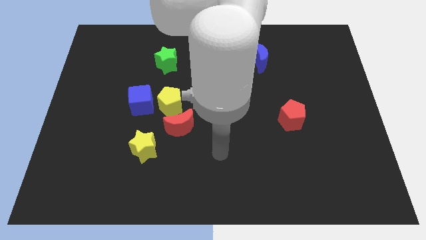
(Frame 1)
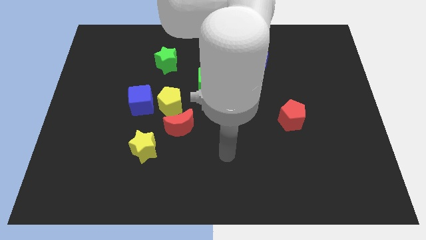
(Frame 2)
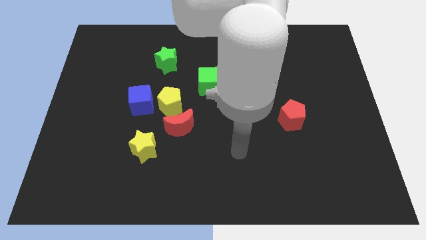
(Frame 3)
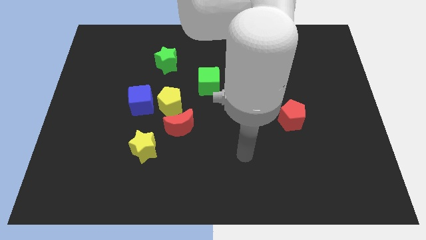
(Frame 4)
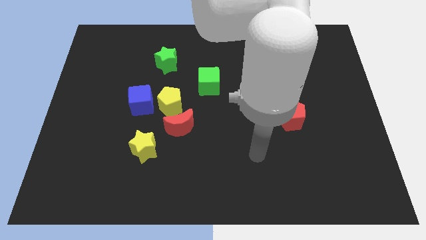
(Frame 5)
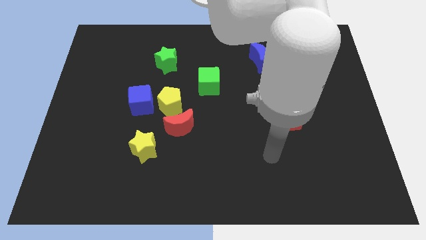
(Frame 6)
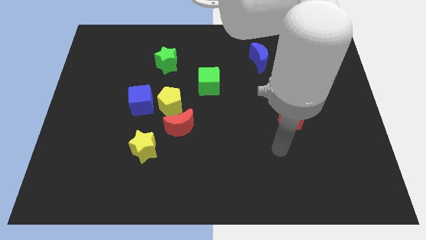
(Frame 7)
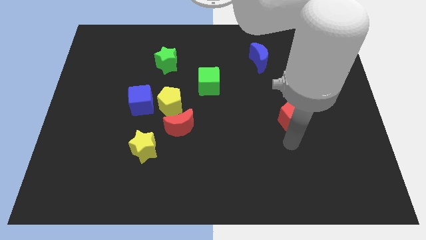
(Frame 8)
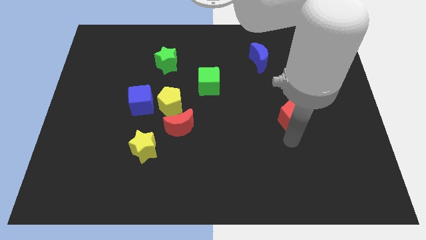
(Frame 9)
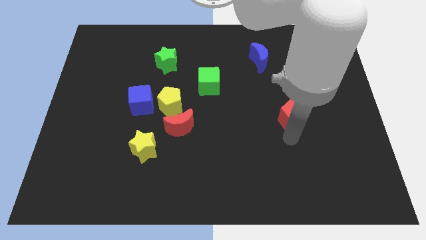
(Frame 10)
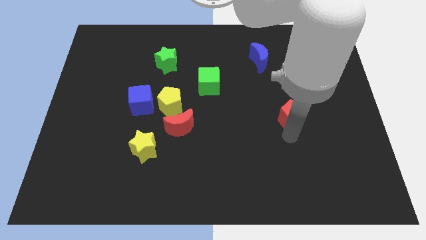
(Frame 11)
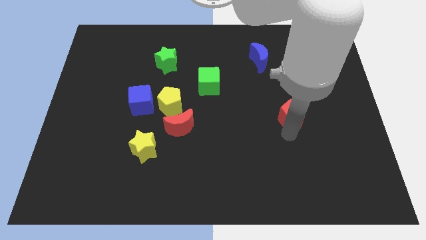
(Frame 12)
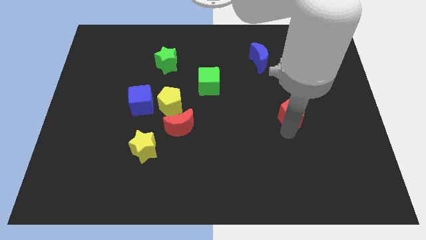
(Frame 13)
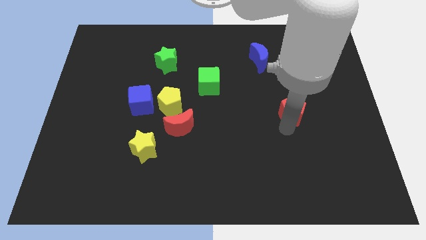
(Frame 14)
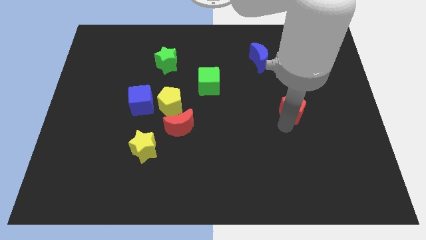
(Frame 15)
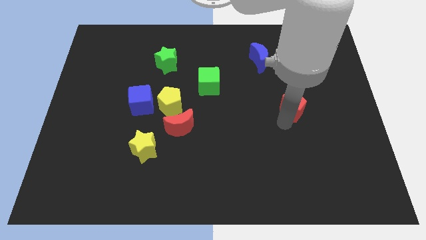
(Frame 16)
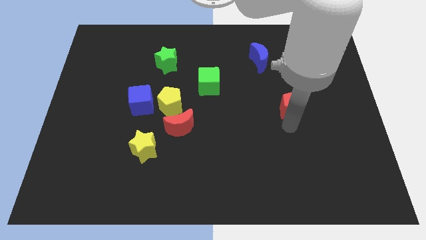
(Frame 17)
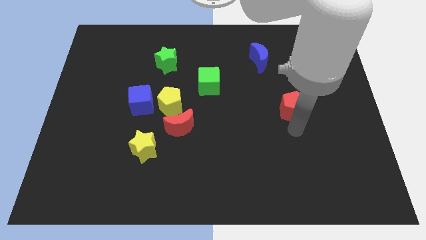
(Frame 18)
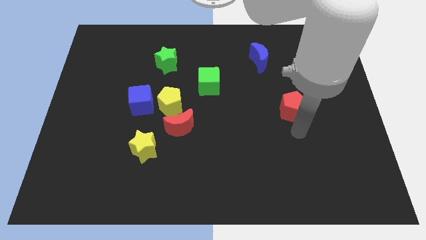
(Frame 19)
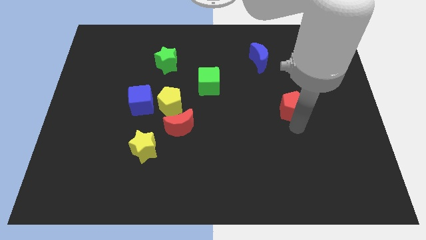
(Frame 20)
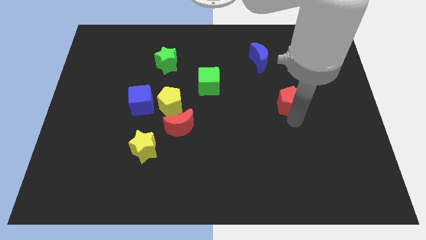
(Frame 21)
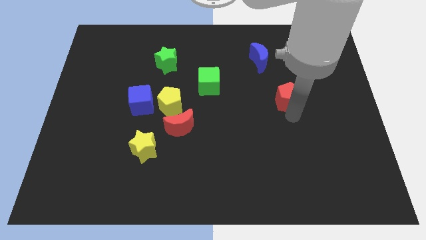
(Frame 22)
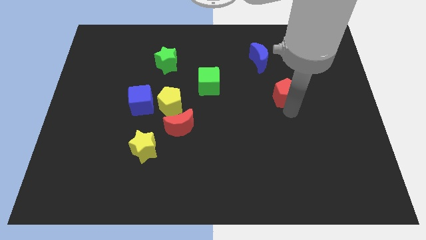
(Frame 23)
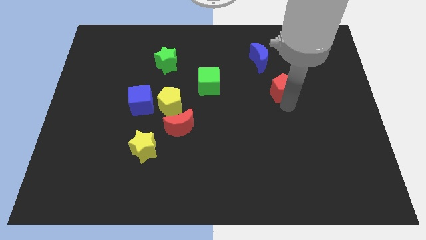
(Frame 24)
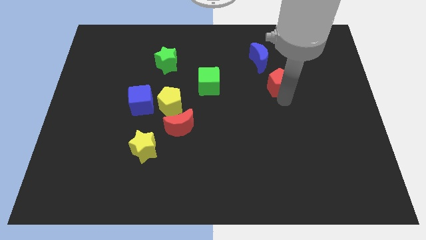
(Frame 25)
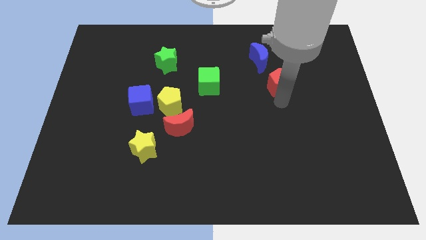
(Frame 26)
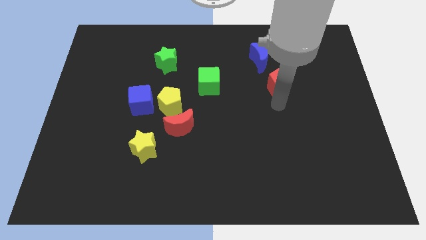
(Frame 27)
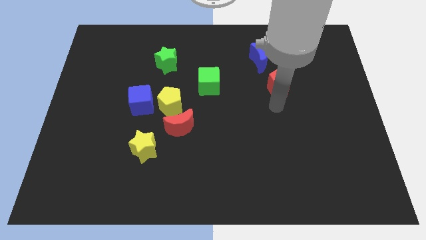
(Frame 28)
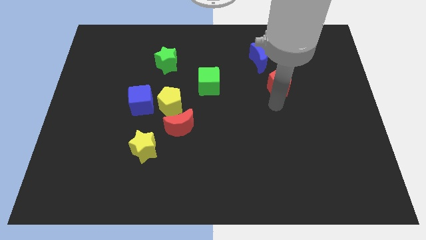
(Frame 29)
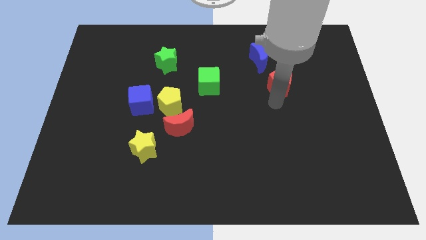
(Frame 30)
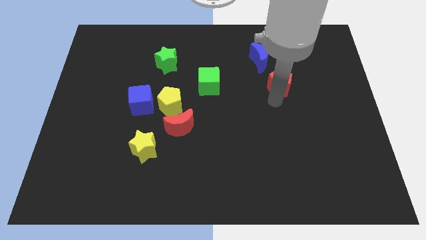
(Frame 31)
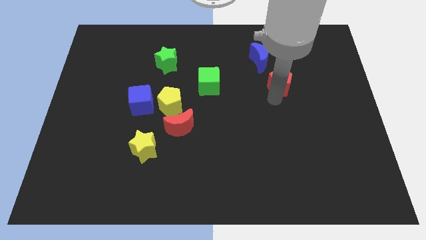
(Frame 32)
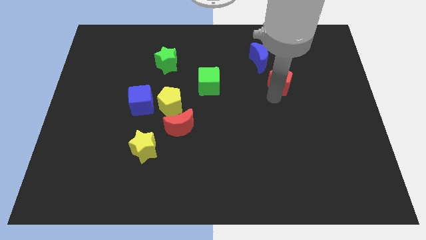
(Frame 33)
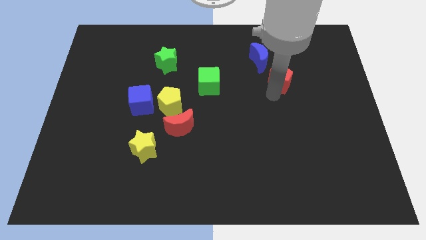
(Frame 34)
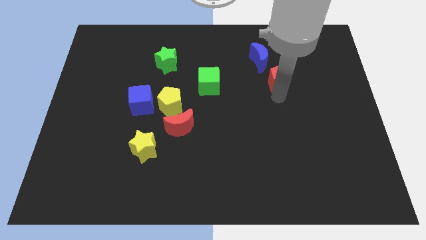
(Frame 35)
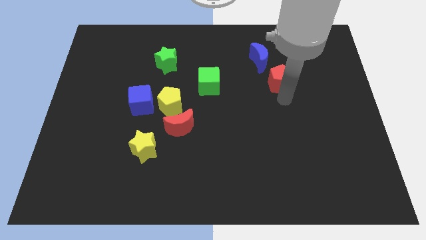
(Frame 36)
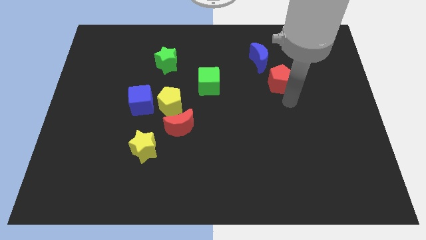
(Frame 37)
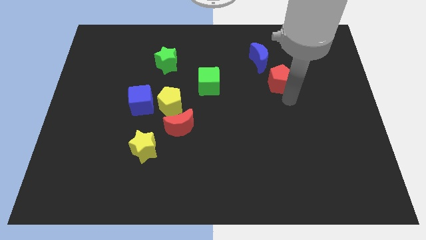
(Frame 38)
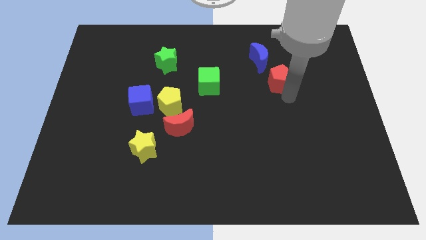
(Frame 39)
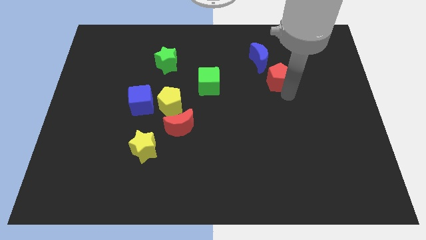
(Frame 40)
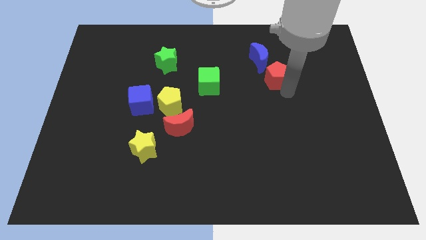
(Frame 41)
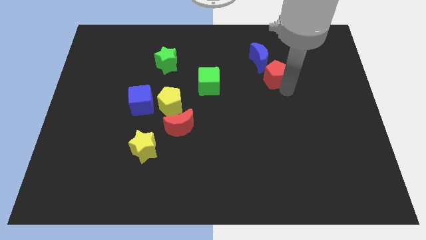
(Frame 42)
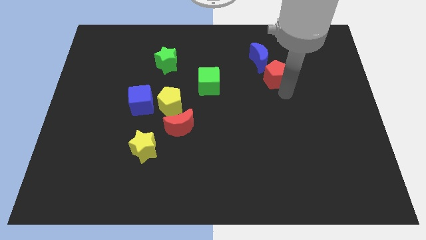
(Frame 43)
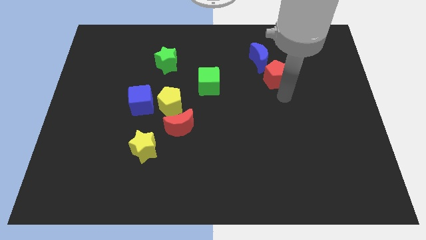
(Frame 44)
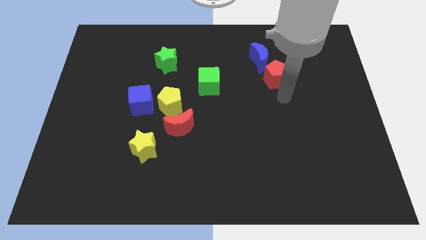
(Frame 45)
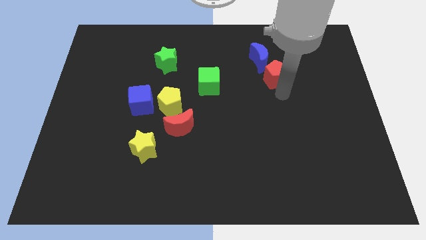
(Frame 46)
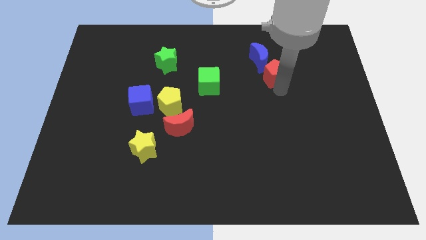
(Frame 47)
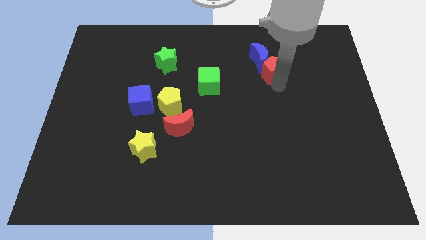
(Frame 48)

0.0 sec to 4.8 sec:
move the red pentagon to the blue moon

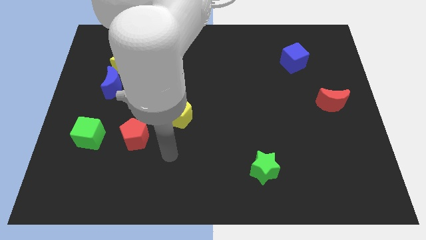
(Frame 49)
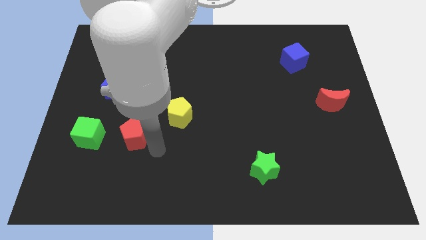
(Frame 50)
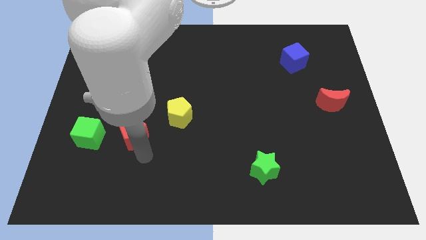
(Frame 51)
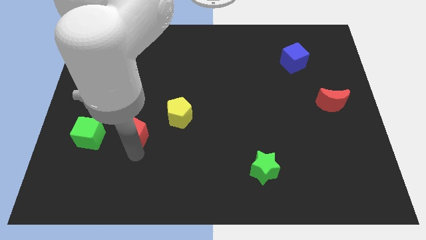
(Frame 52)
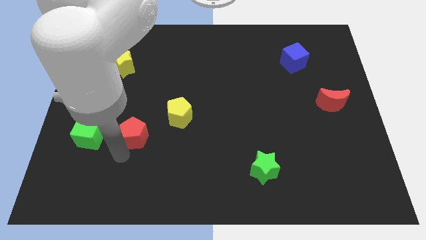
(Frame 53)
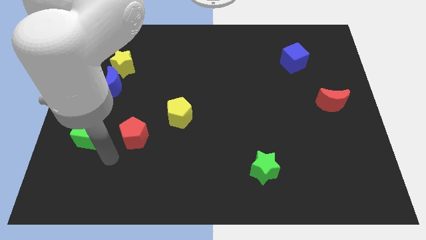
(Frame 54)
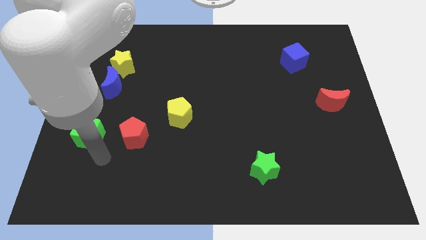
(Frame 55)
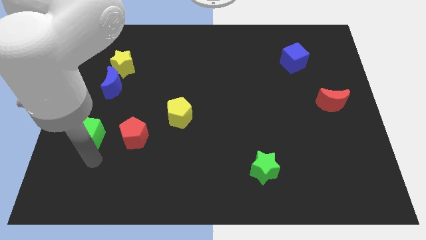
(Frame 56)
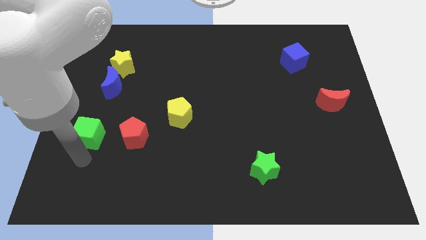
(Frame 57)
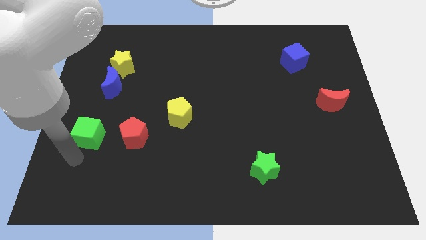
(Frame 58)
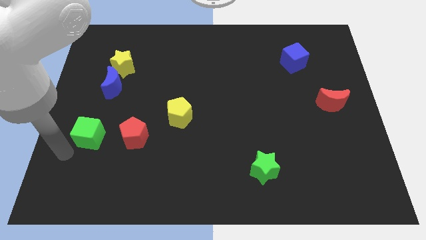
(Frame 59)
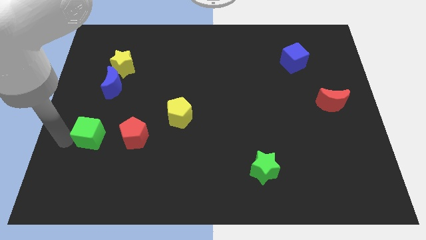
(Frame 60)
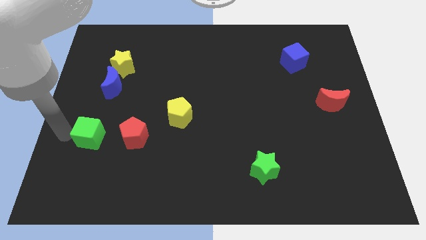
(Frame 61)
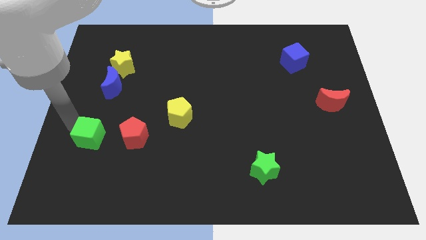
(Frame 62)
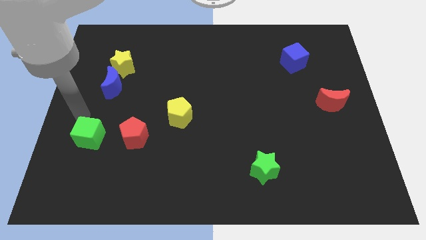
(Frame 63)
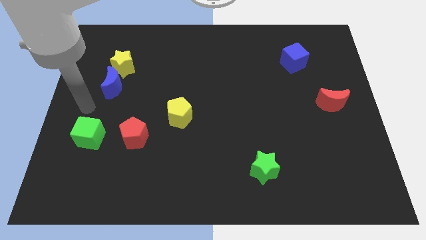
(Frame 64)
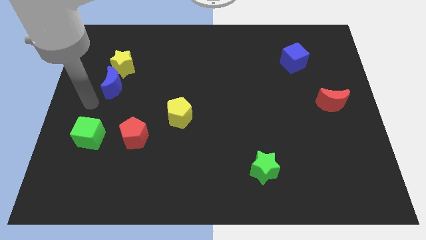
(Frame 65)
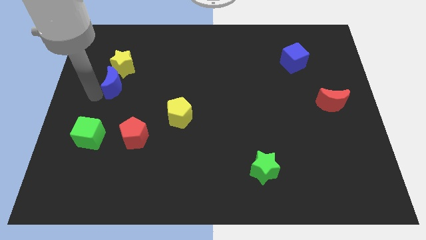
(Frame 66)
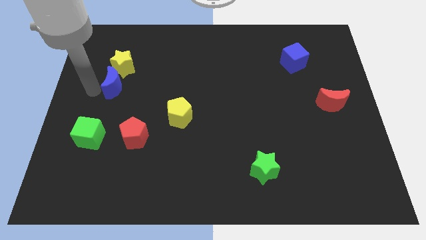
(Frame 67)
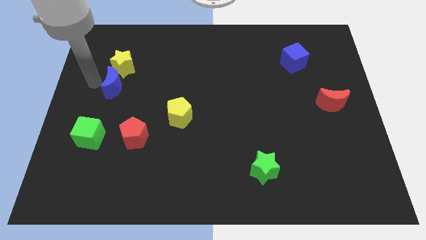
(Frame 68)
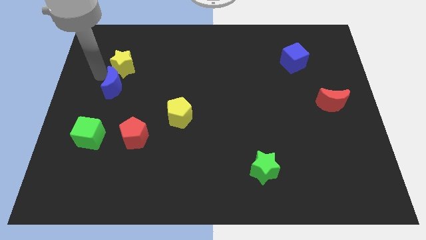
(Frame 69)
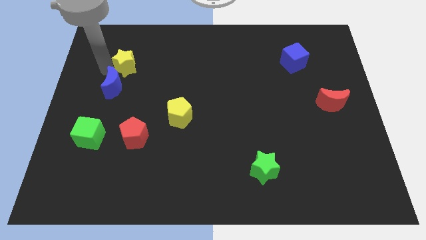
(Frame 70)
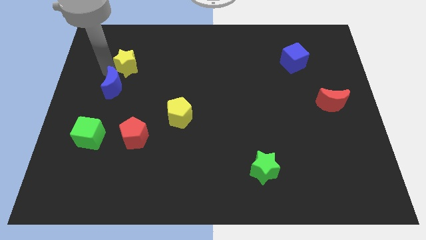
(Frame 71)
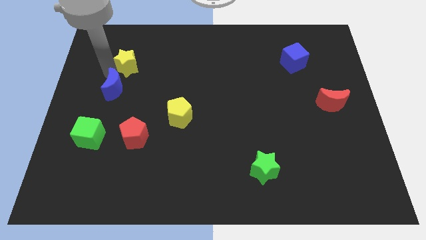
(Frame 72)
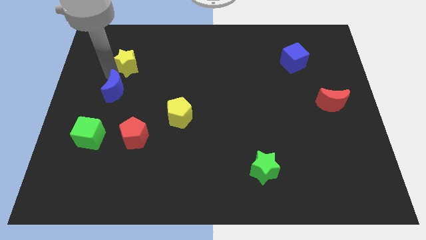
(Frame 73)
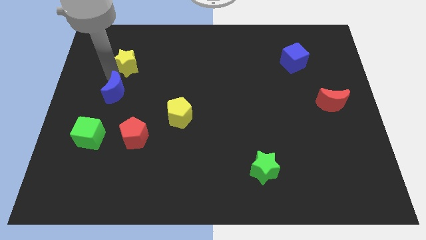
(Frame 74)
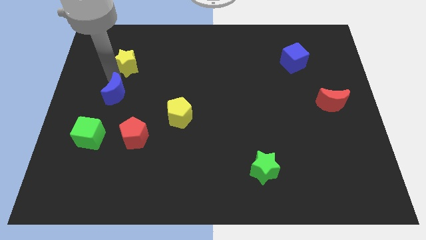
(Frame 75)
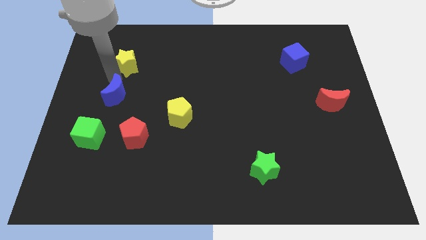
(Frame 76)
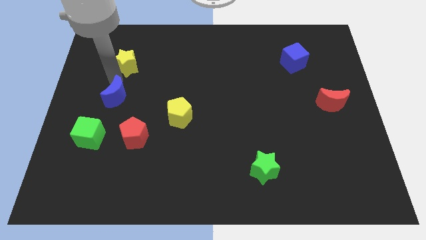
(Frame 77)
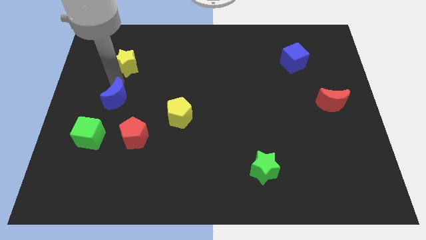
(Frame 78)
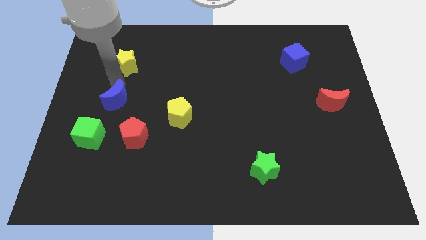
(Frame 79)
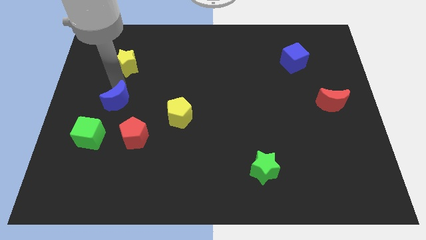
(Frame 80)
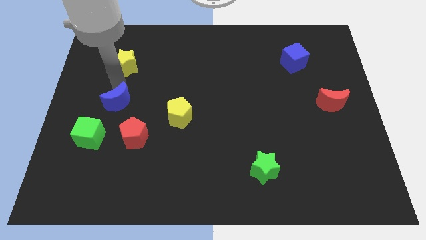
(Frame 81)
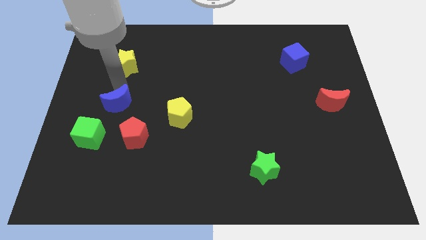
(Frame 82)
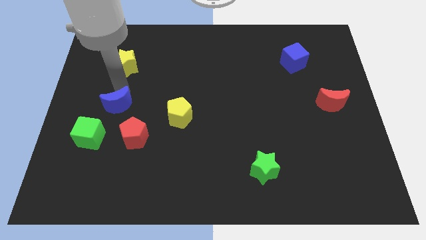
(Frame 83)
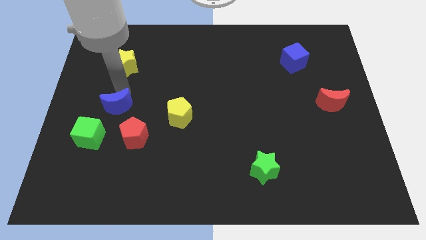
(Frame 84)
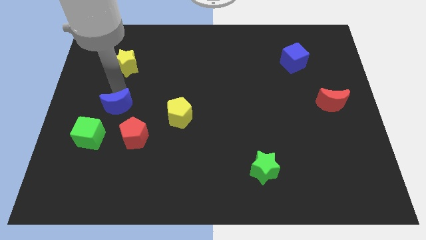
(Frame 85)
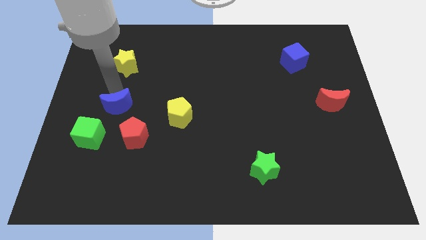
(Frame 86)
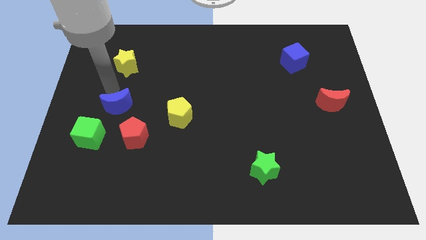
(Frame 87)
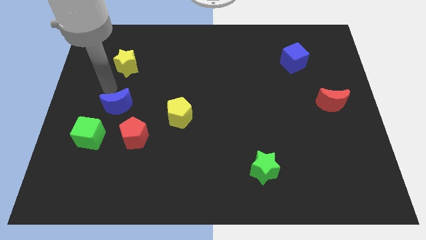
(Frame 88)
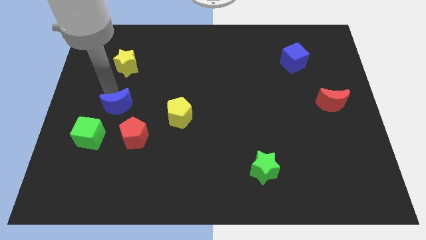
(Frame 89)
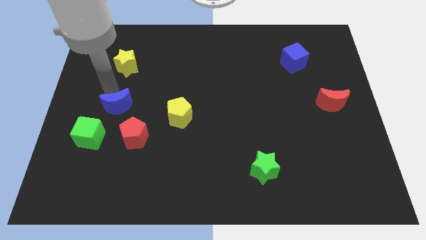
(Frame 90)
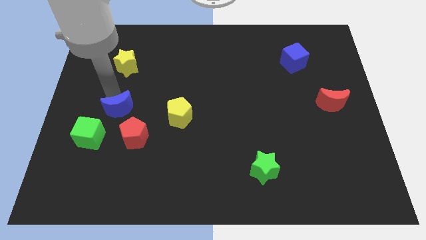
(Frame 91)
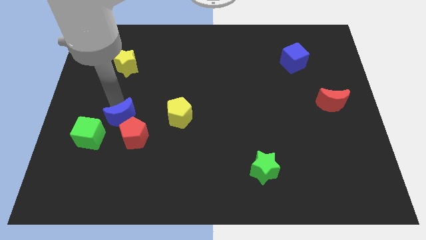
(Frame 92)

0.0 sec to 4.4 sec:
slide the blue moon towards the red pentagon
